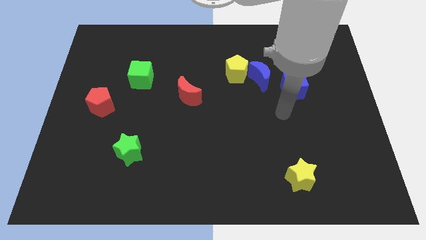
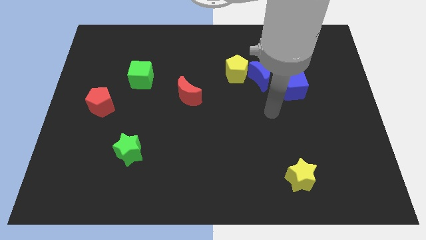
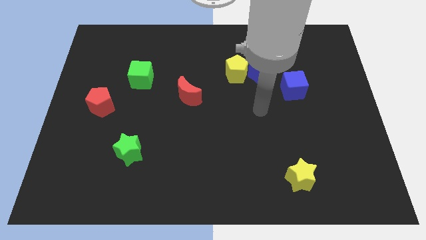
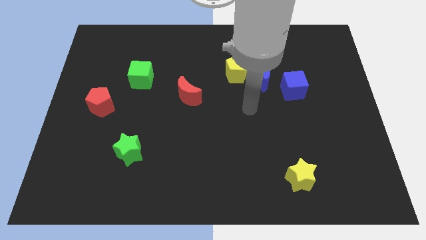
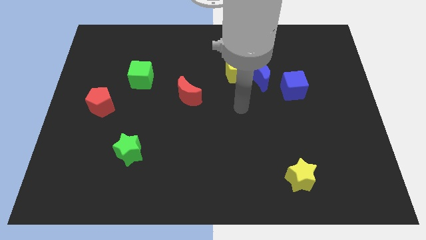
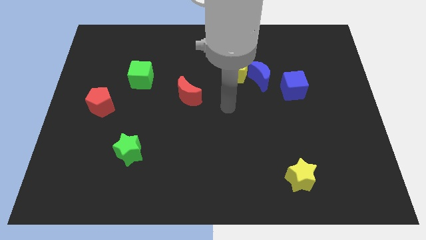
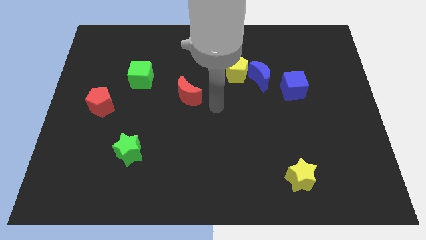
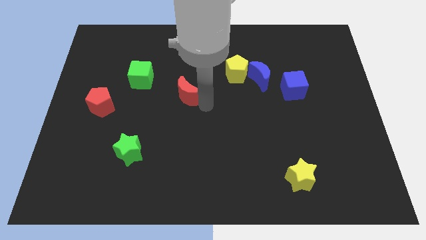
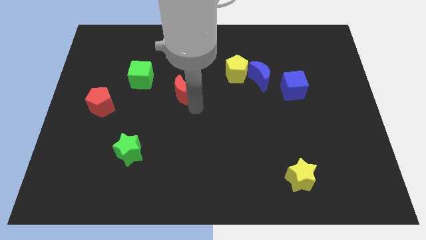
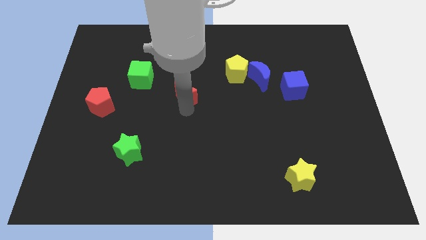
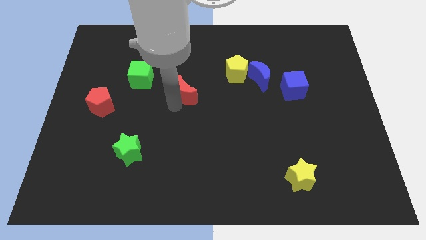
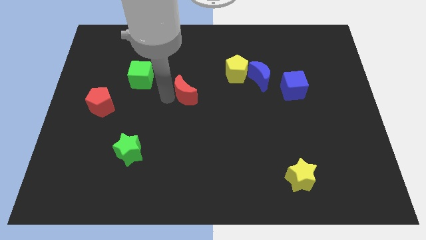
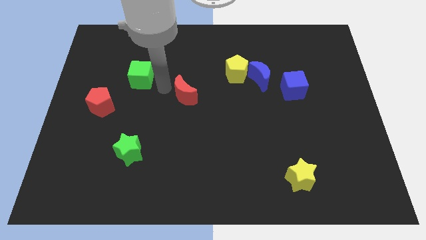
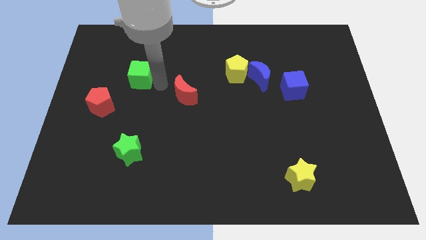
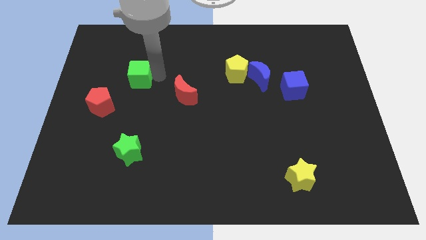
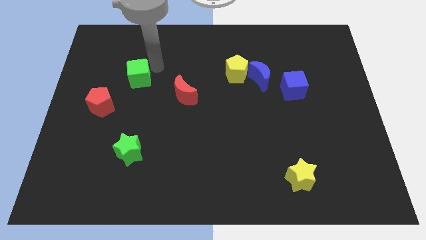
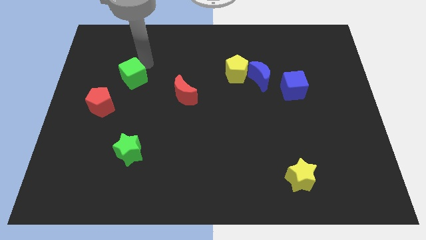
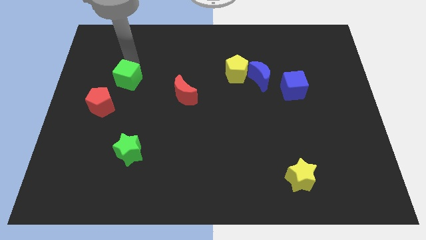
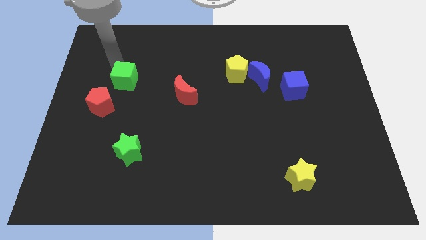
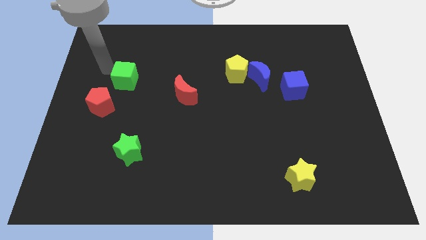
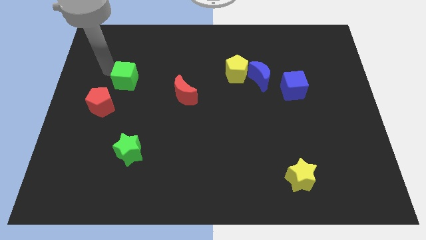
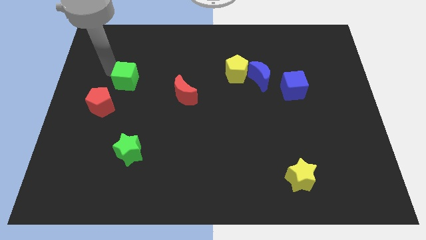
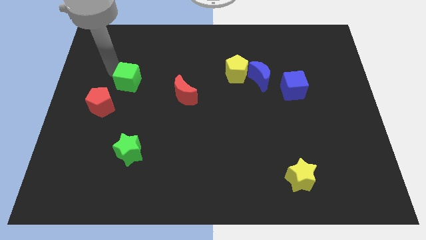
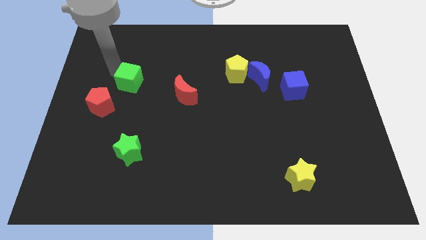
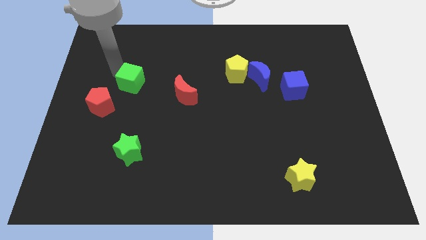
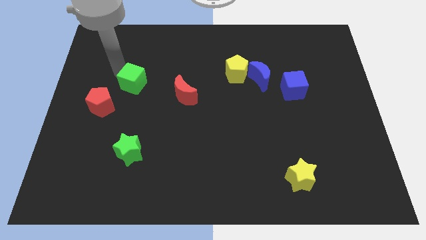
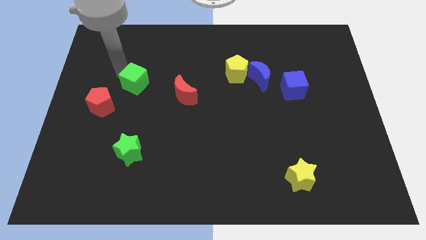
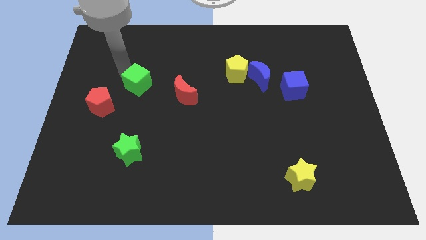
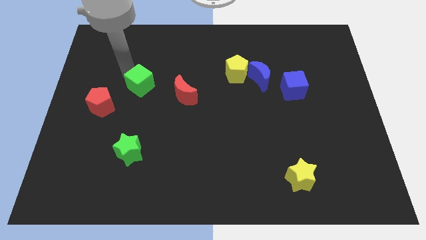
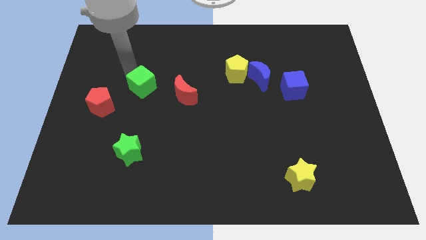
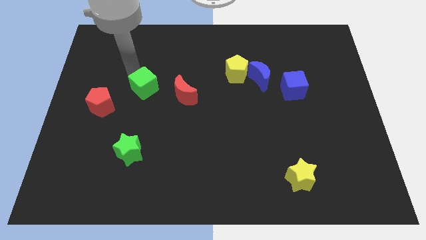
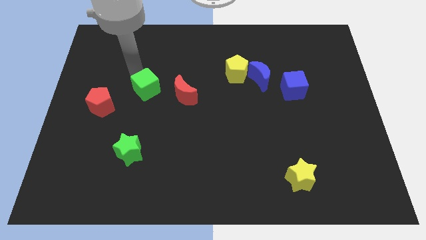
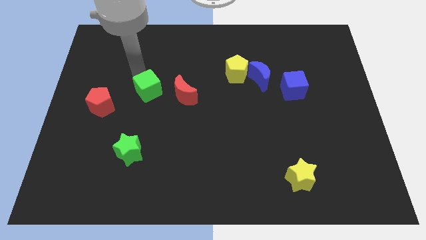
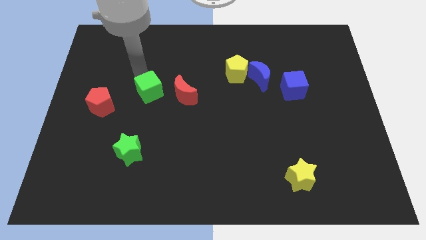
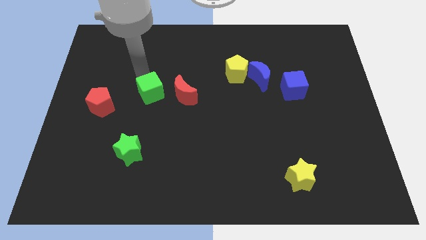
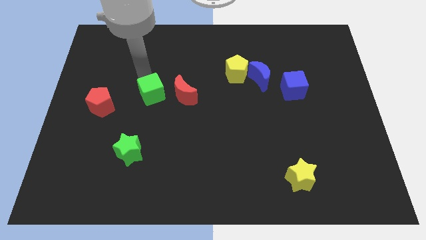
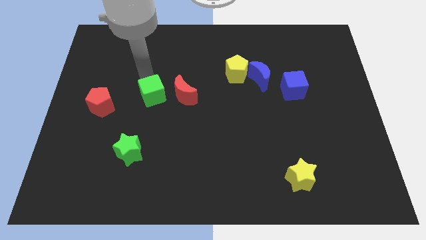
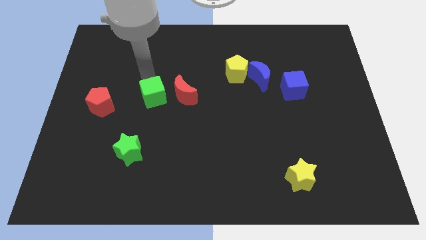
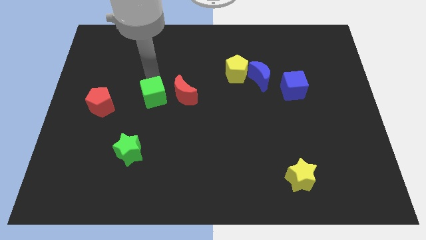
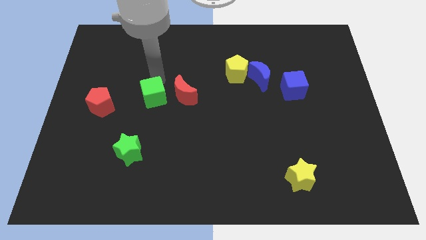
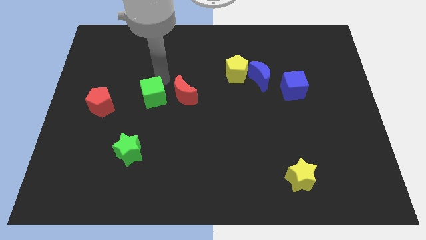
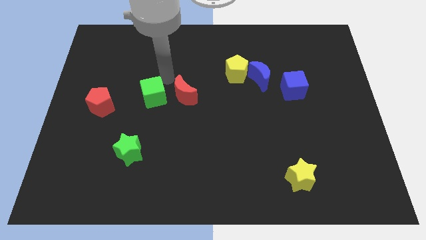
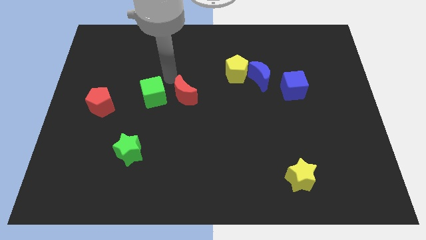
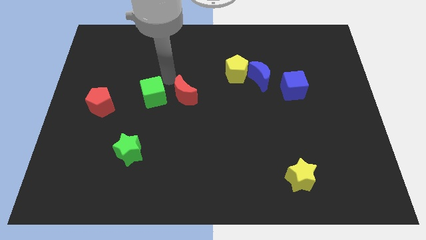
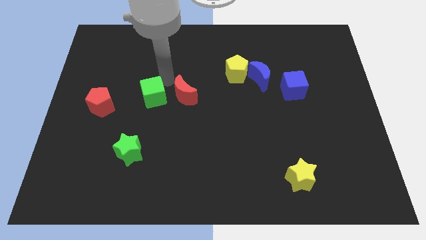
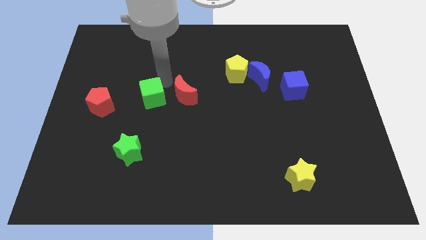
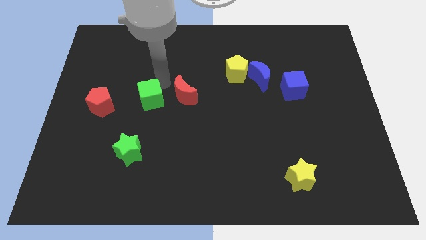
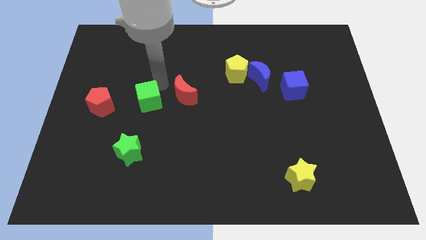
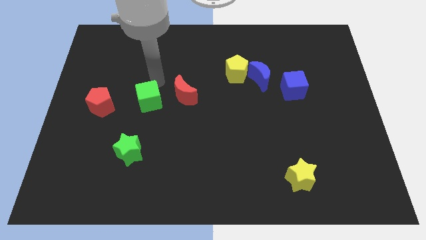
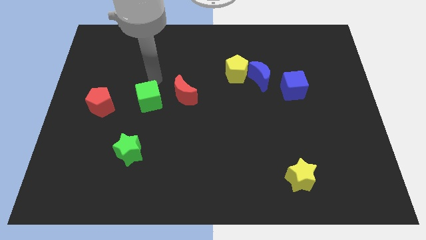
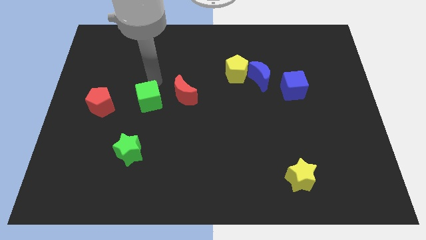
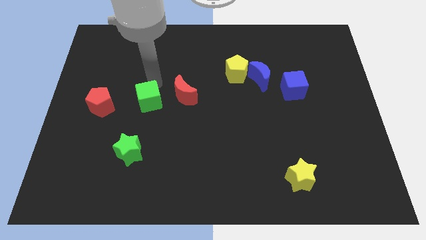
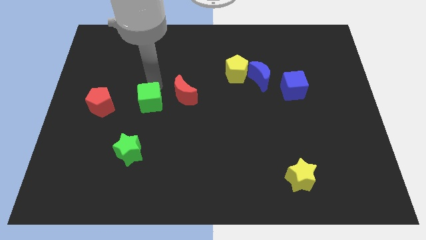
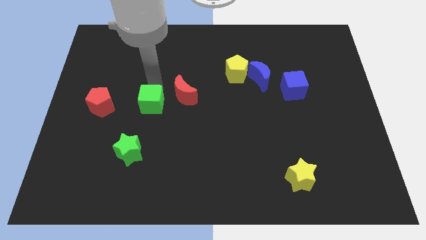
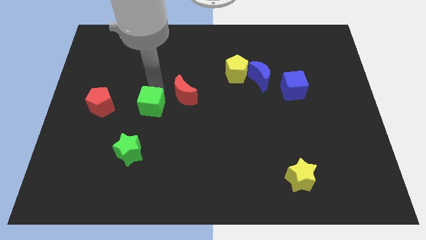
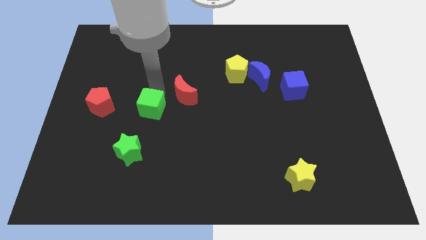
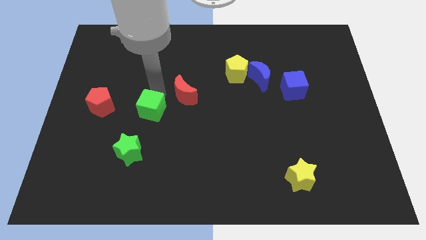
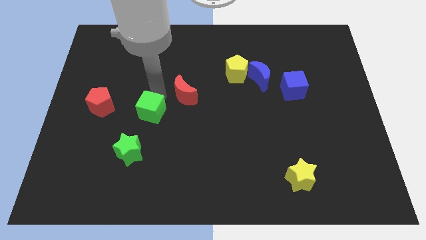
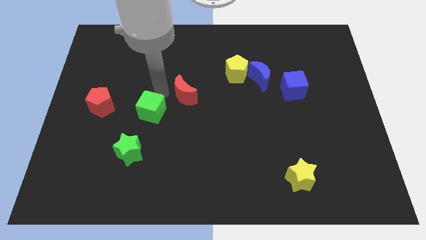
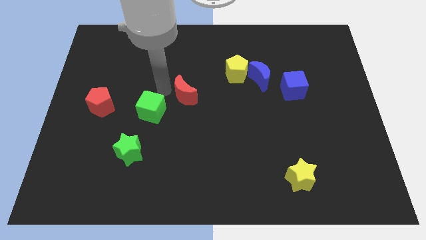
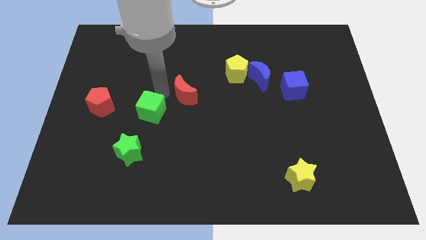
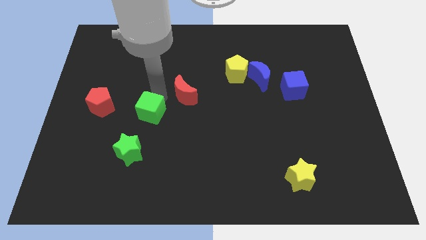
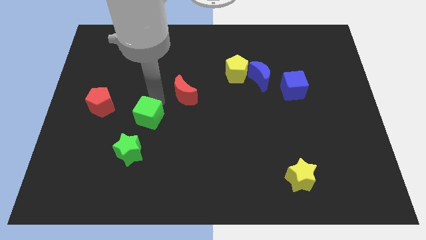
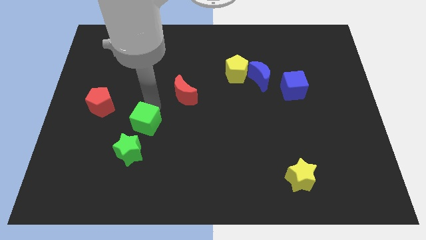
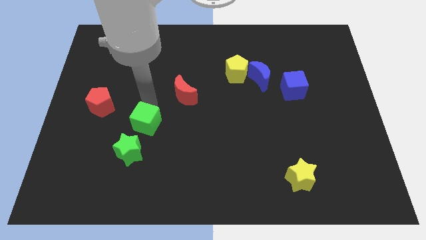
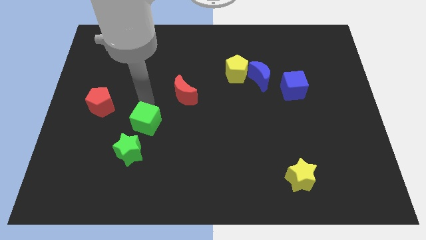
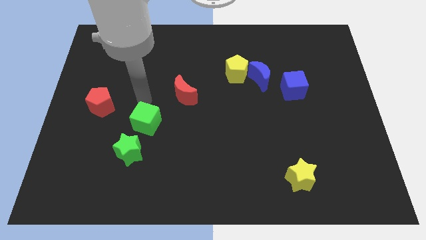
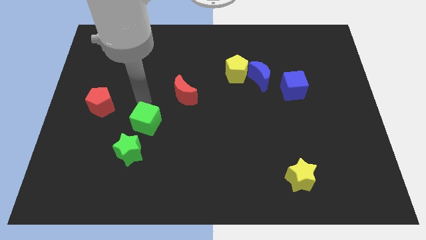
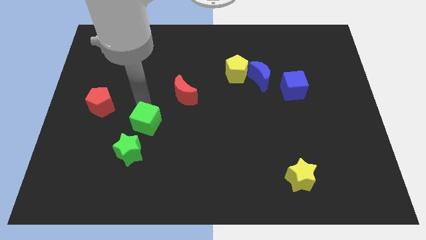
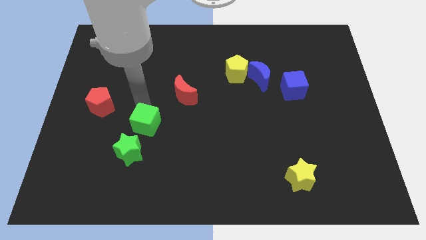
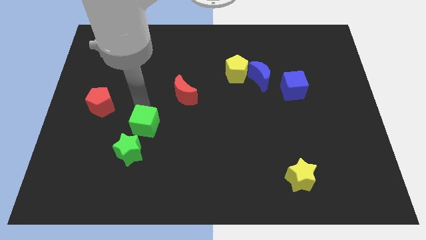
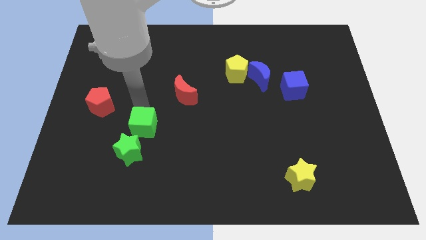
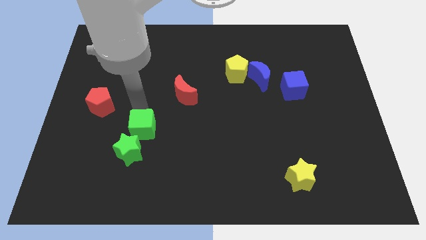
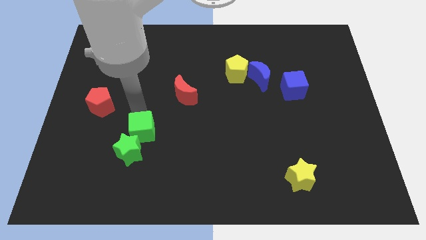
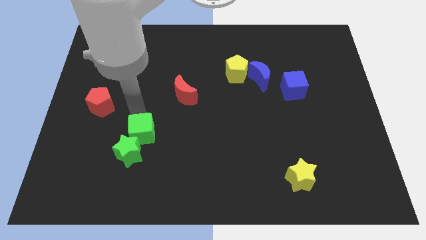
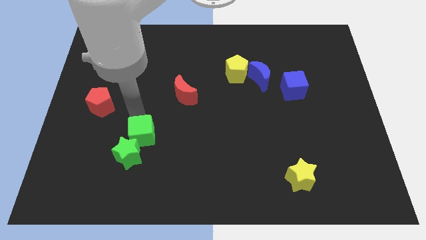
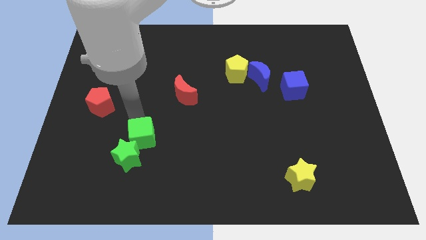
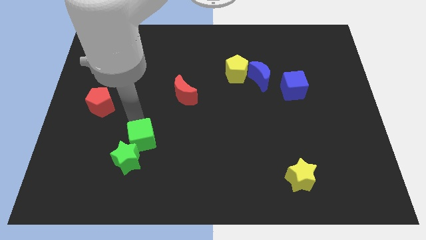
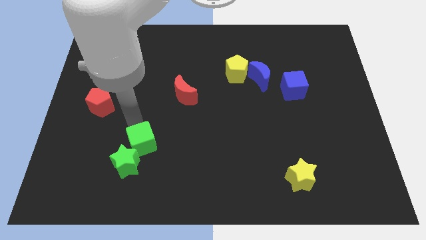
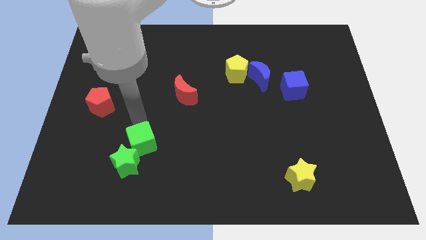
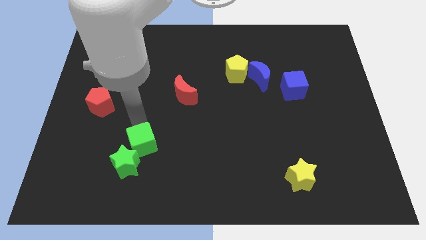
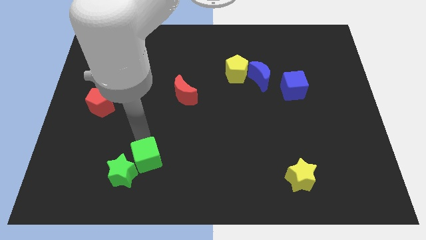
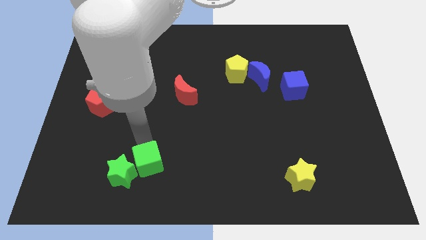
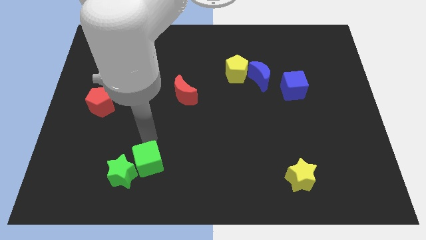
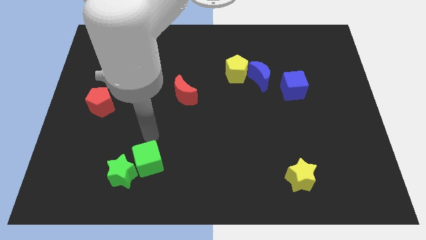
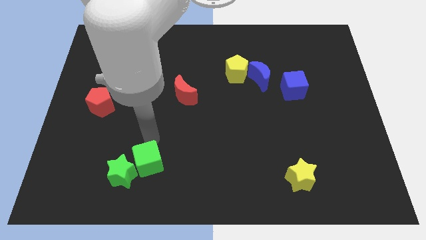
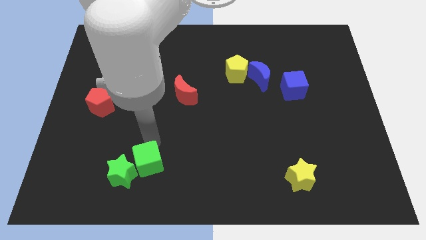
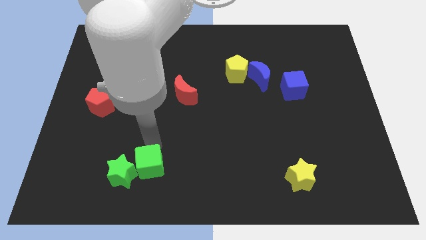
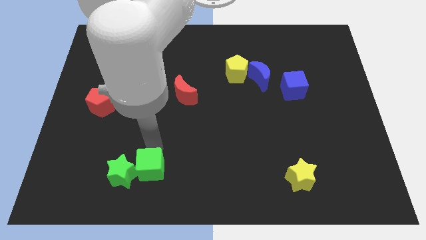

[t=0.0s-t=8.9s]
move the green cube diagonally down and to the right of the green star
